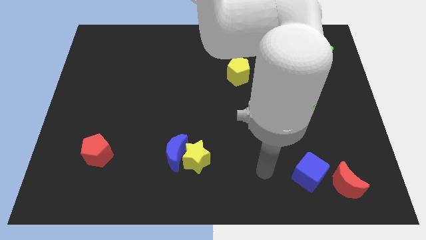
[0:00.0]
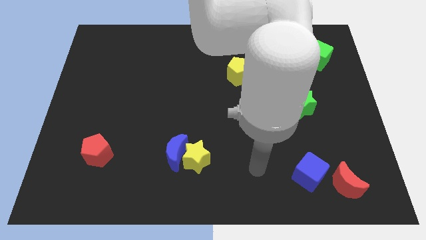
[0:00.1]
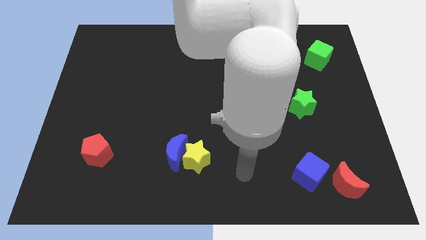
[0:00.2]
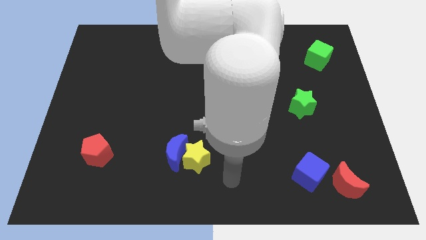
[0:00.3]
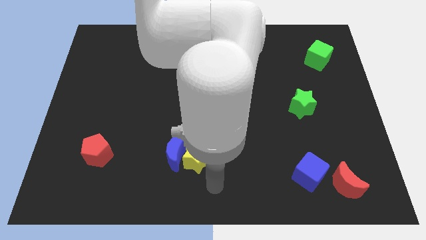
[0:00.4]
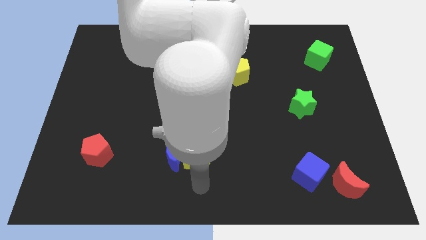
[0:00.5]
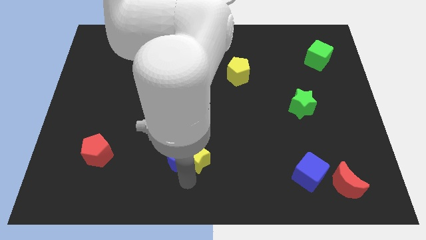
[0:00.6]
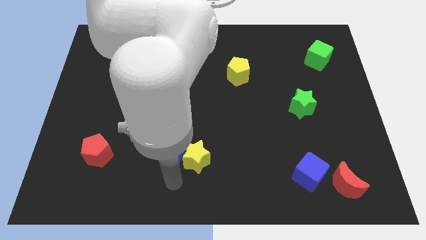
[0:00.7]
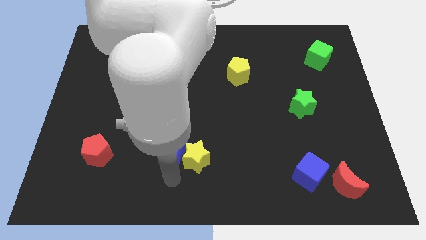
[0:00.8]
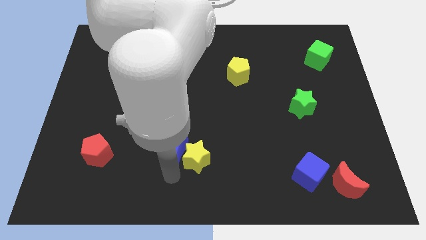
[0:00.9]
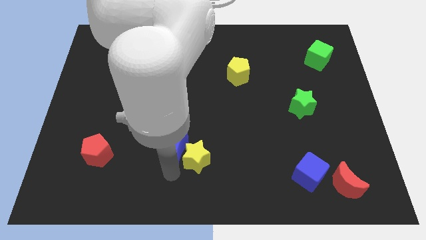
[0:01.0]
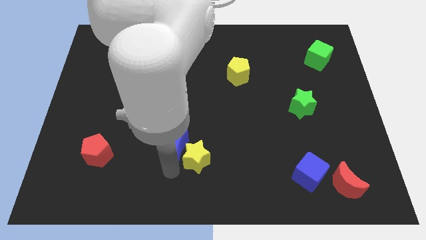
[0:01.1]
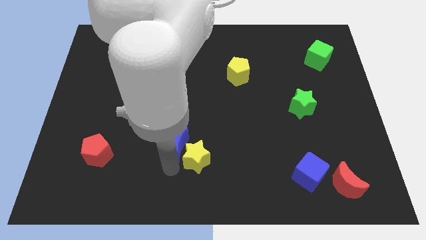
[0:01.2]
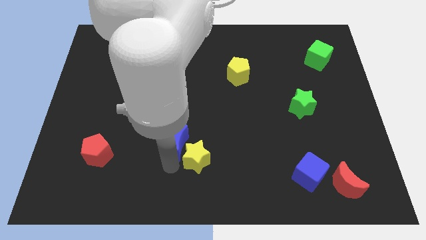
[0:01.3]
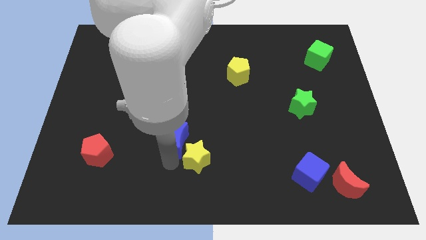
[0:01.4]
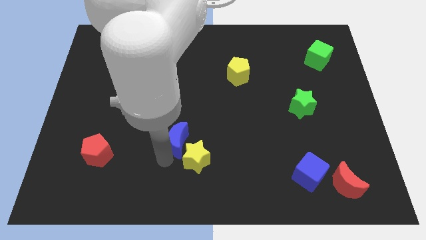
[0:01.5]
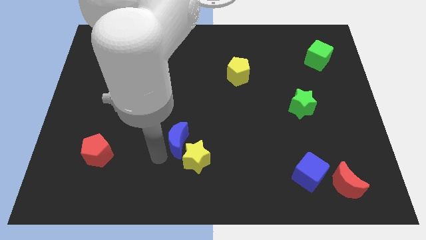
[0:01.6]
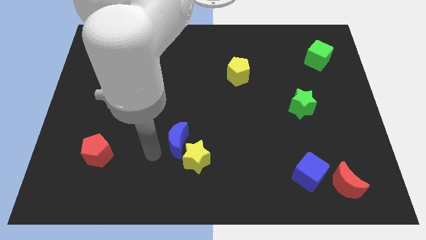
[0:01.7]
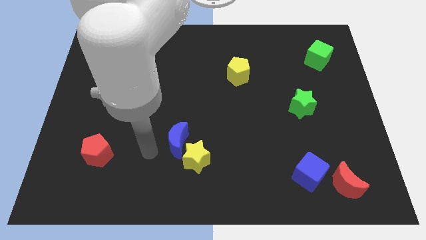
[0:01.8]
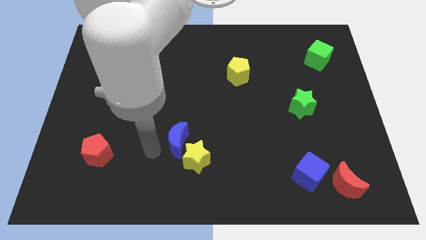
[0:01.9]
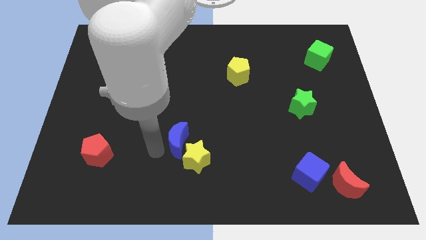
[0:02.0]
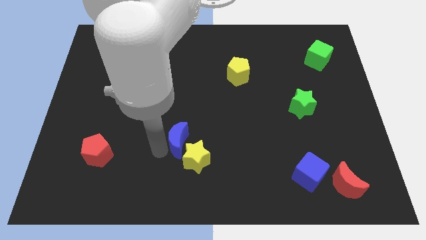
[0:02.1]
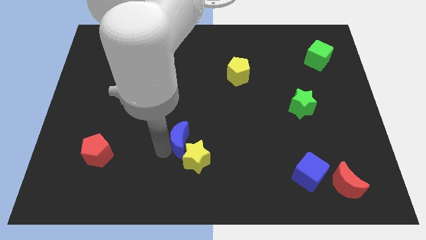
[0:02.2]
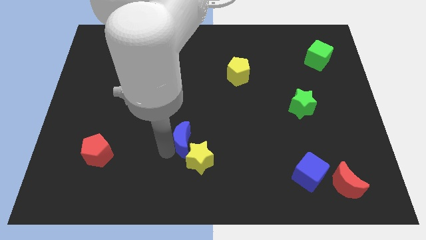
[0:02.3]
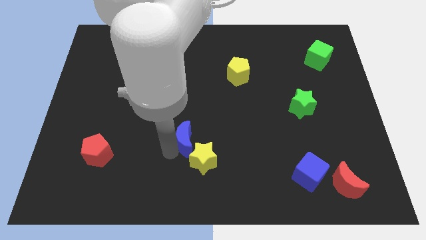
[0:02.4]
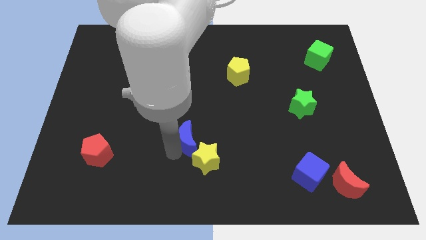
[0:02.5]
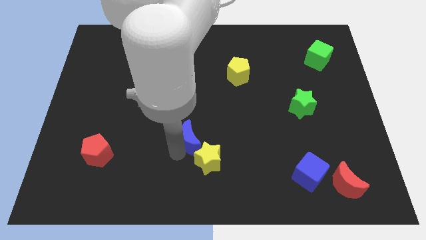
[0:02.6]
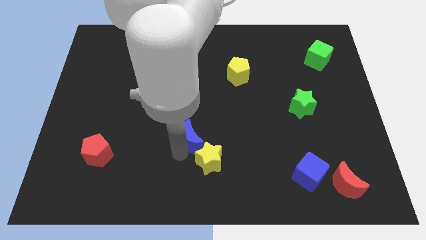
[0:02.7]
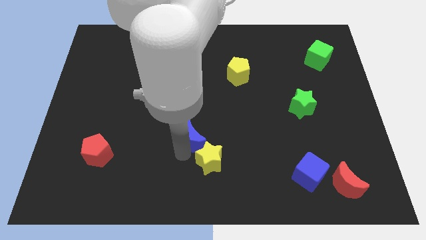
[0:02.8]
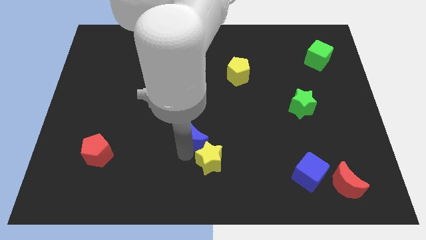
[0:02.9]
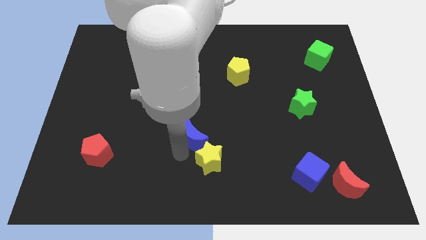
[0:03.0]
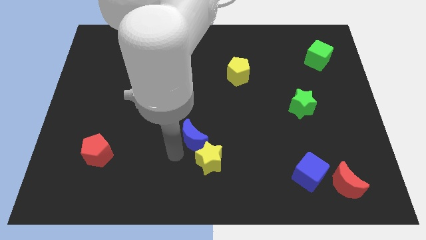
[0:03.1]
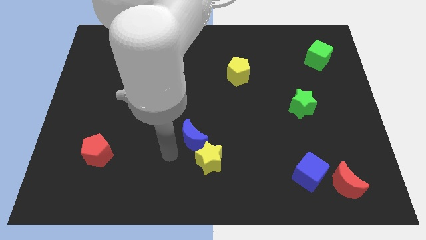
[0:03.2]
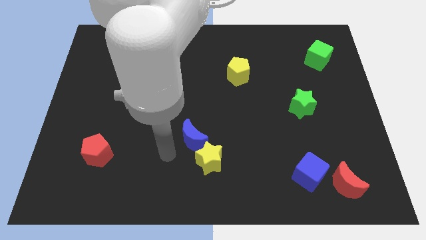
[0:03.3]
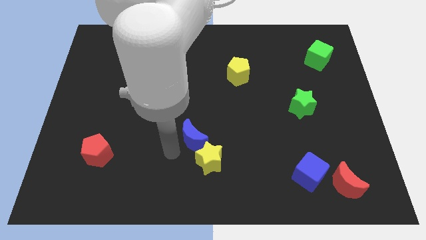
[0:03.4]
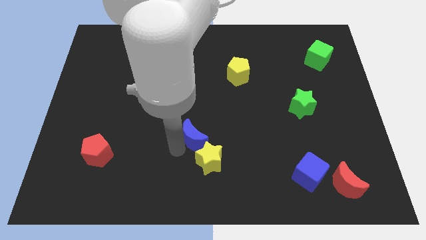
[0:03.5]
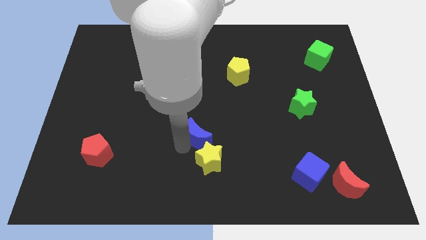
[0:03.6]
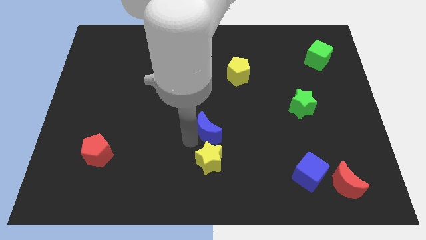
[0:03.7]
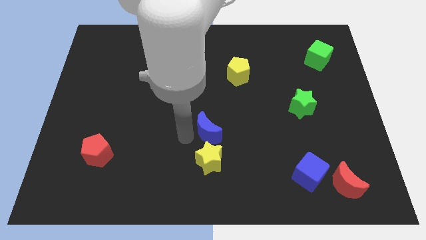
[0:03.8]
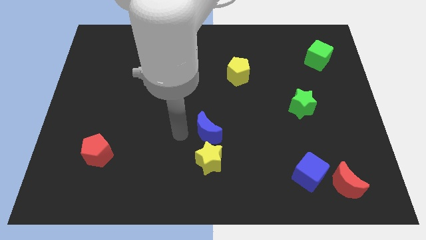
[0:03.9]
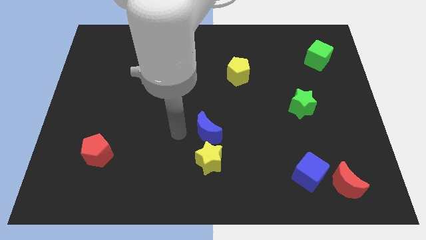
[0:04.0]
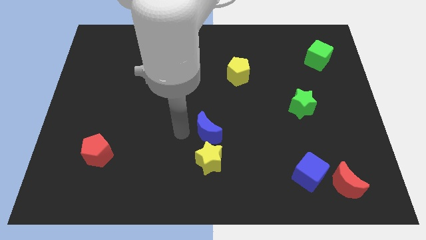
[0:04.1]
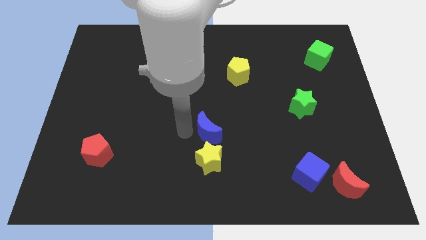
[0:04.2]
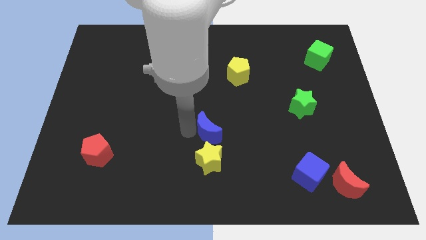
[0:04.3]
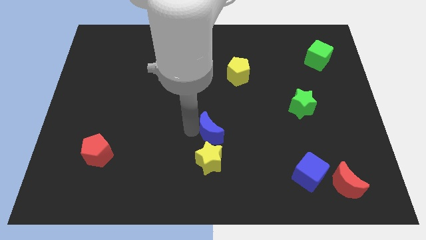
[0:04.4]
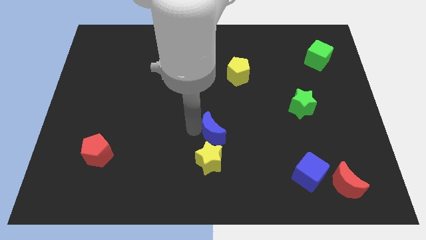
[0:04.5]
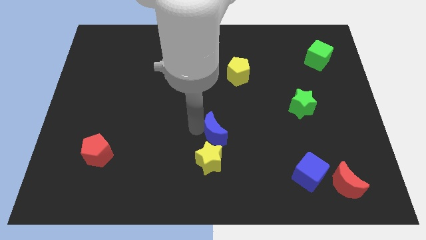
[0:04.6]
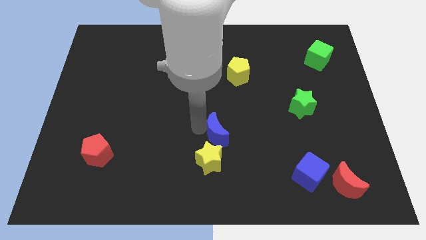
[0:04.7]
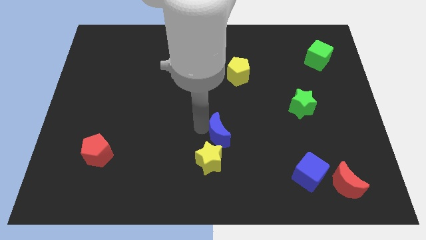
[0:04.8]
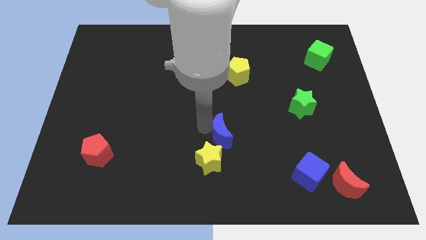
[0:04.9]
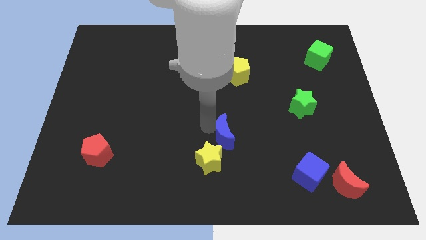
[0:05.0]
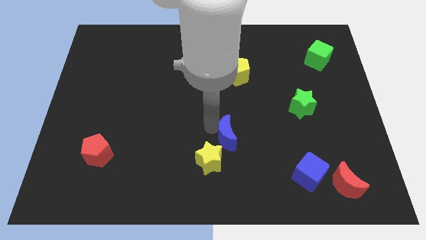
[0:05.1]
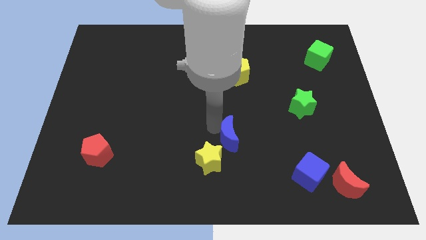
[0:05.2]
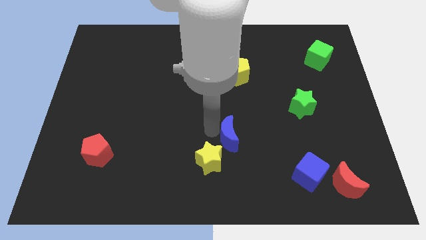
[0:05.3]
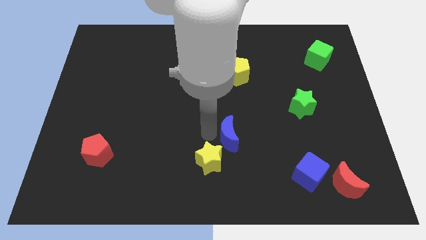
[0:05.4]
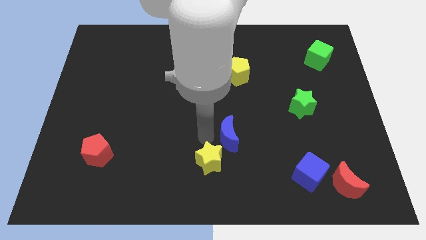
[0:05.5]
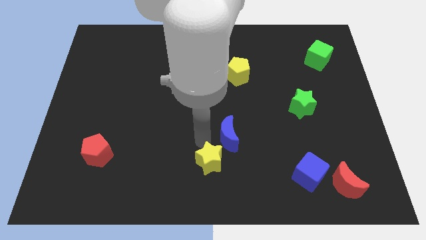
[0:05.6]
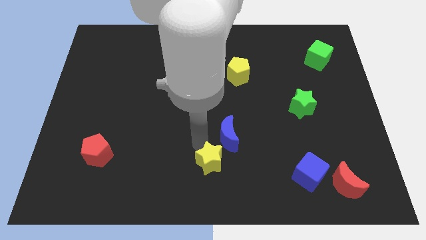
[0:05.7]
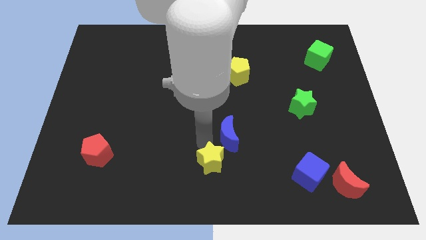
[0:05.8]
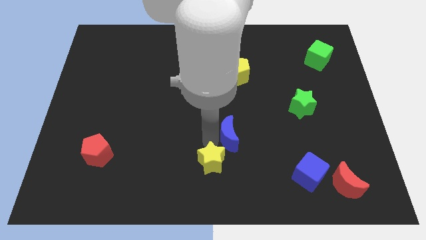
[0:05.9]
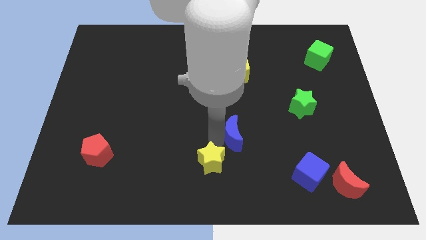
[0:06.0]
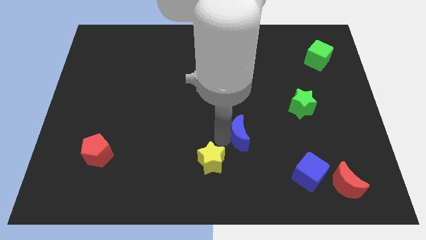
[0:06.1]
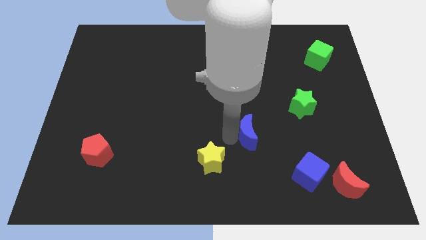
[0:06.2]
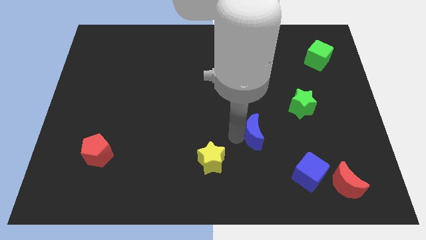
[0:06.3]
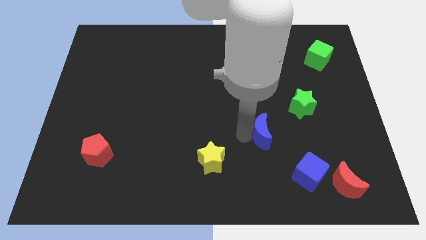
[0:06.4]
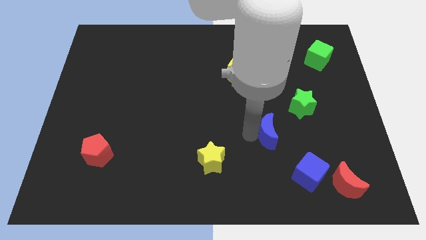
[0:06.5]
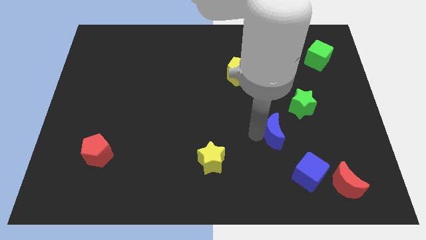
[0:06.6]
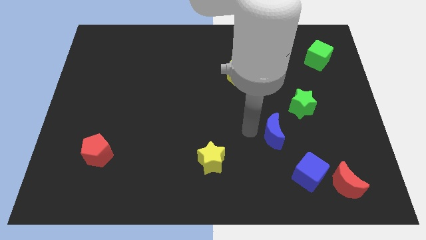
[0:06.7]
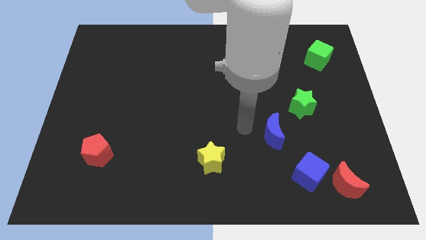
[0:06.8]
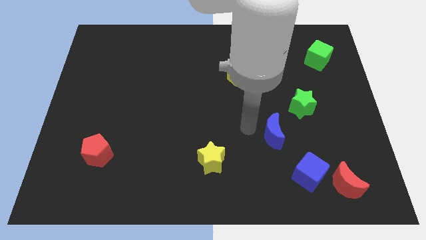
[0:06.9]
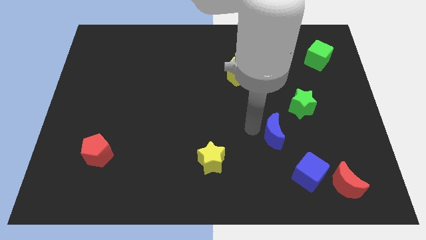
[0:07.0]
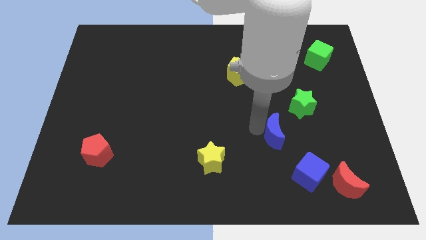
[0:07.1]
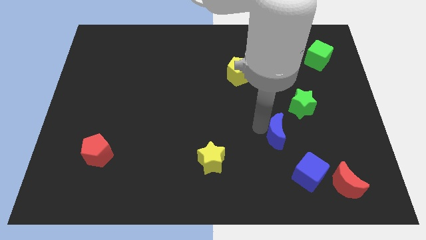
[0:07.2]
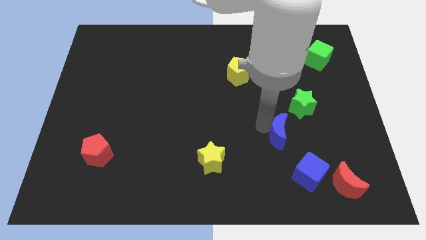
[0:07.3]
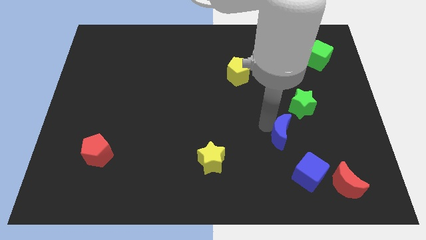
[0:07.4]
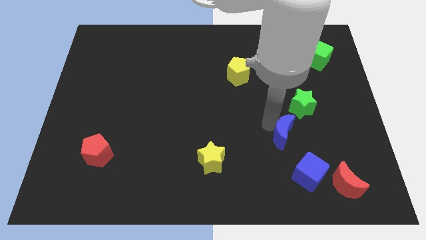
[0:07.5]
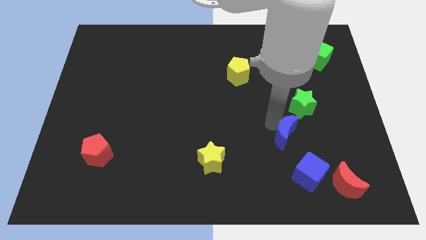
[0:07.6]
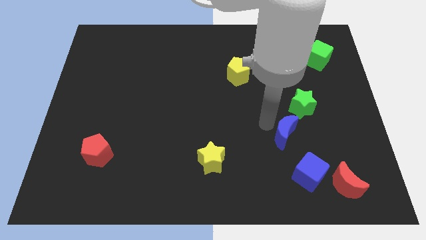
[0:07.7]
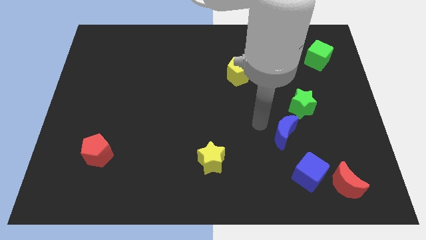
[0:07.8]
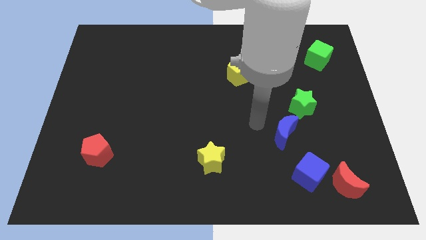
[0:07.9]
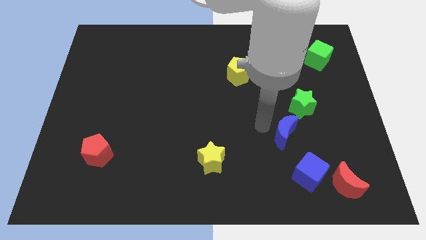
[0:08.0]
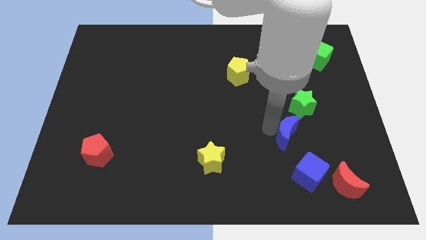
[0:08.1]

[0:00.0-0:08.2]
push the blue moon below the green star
